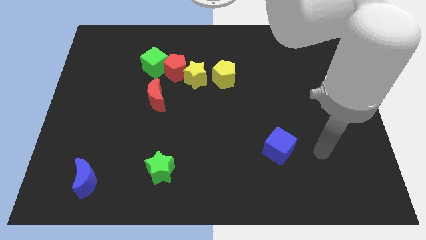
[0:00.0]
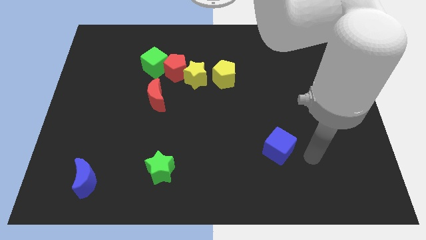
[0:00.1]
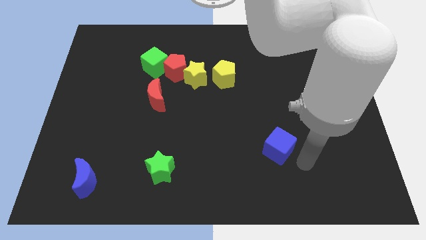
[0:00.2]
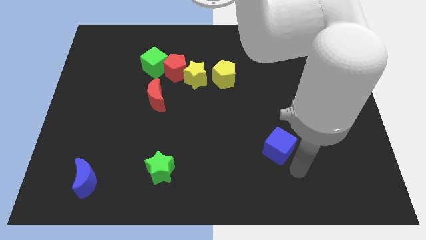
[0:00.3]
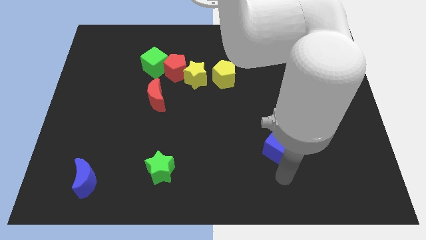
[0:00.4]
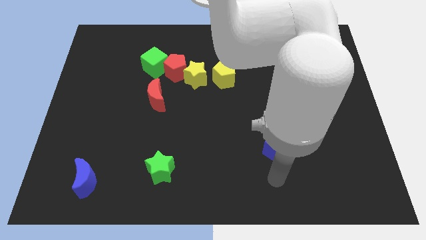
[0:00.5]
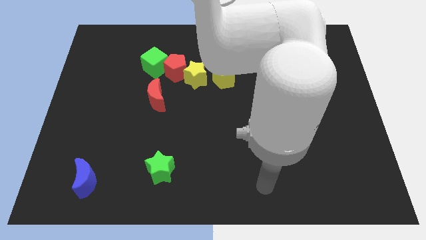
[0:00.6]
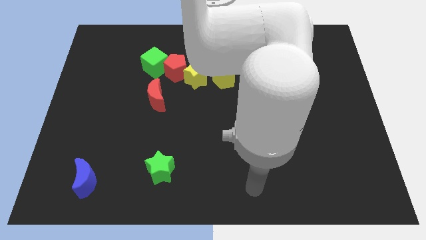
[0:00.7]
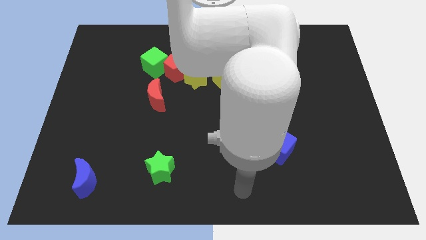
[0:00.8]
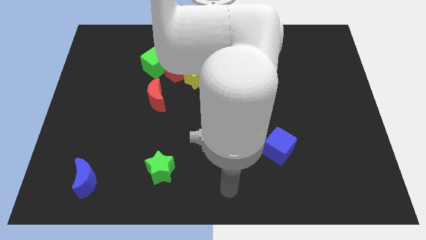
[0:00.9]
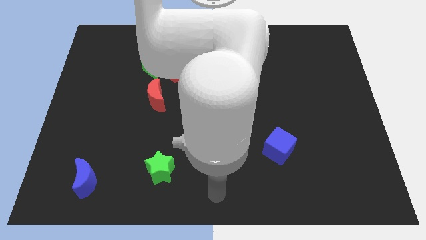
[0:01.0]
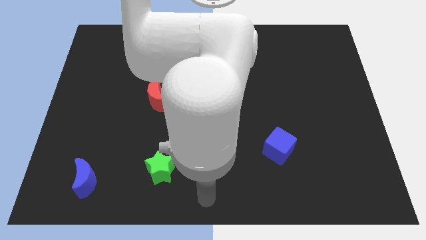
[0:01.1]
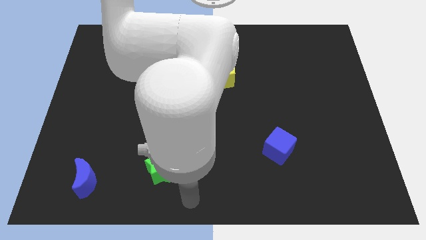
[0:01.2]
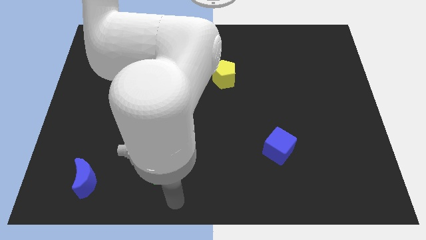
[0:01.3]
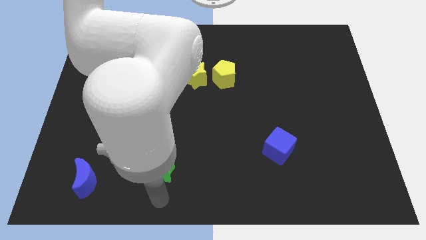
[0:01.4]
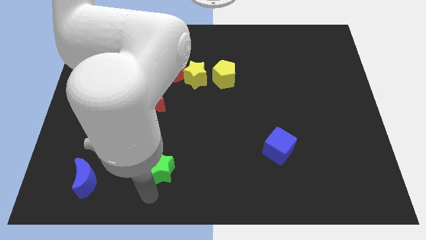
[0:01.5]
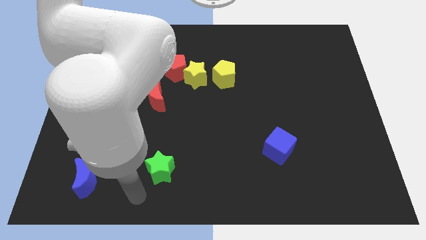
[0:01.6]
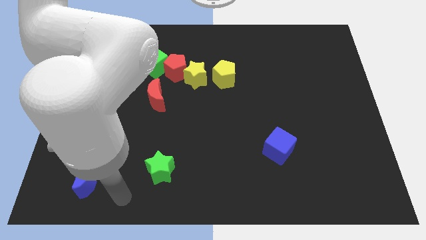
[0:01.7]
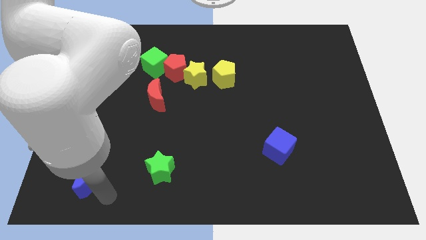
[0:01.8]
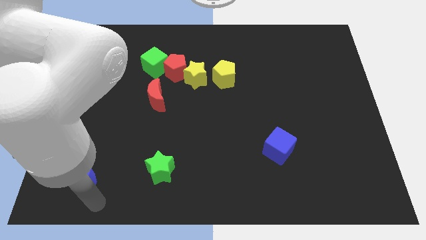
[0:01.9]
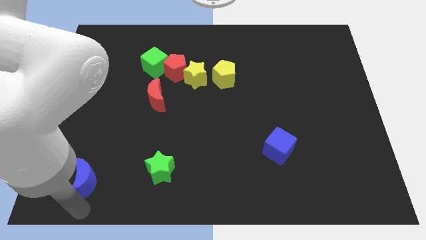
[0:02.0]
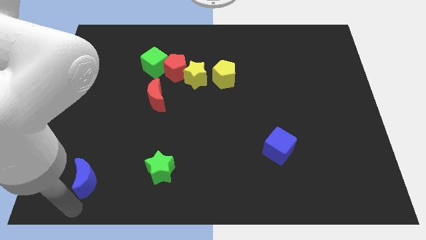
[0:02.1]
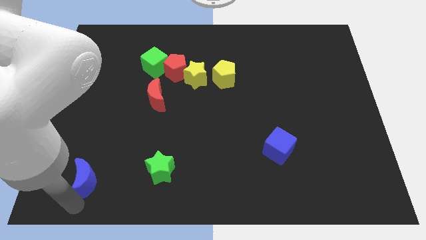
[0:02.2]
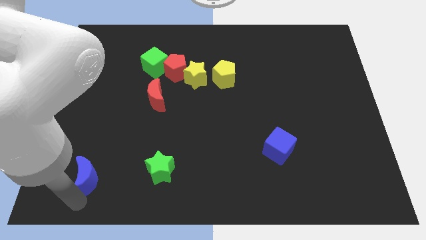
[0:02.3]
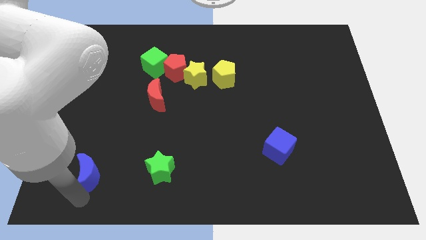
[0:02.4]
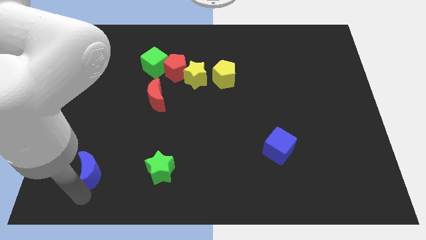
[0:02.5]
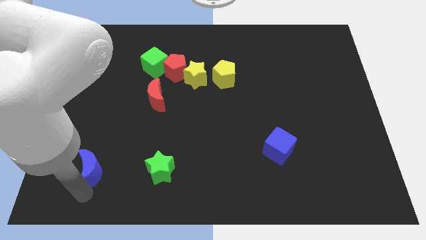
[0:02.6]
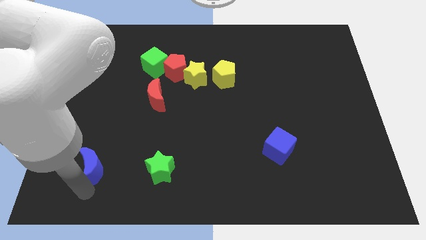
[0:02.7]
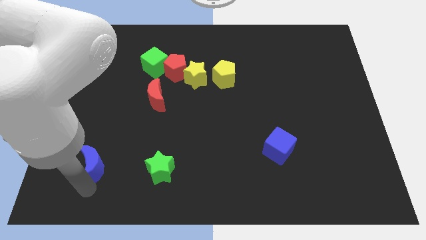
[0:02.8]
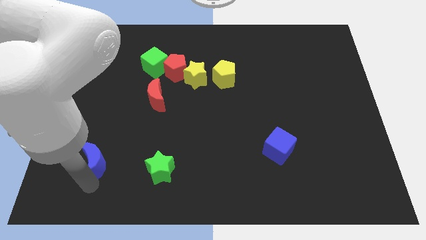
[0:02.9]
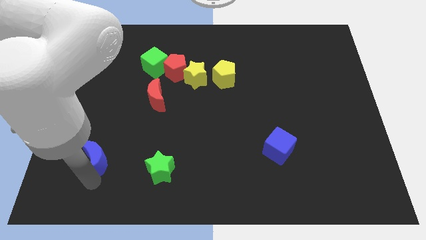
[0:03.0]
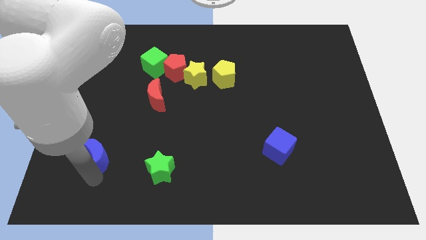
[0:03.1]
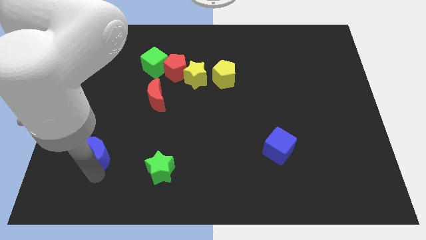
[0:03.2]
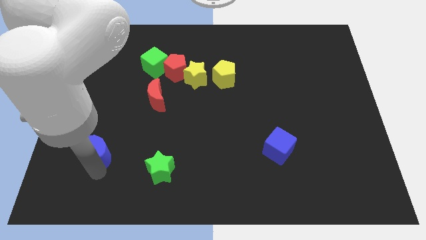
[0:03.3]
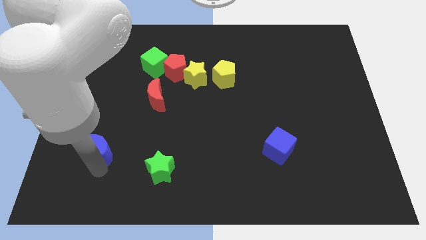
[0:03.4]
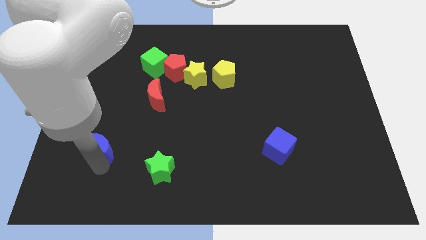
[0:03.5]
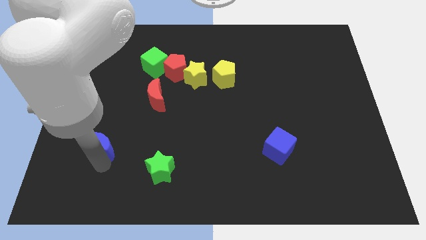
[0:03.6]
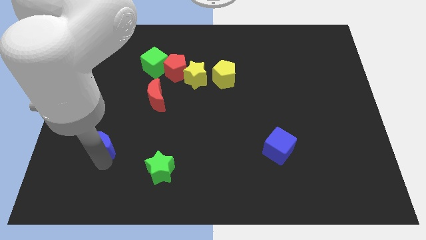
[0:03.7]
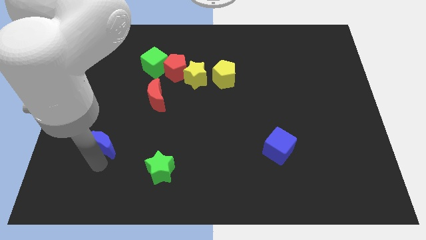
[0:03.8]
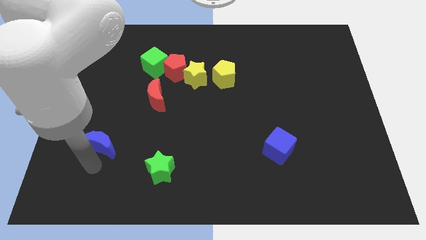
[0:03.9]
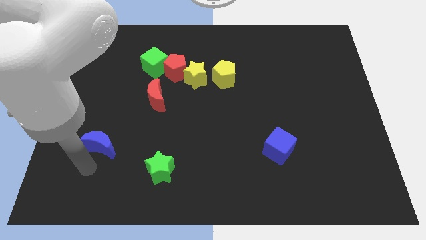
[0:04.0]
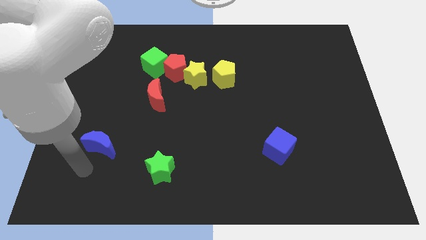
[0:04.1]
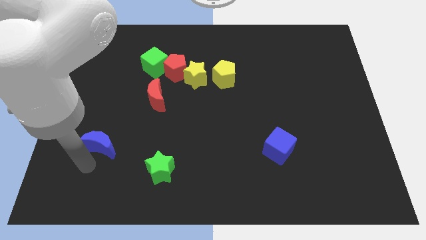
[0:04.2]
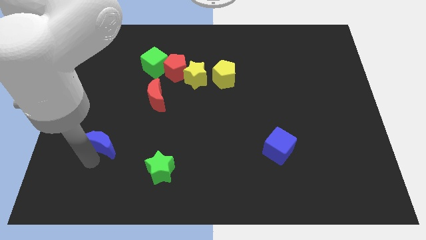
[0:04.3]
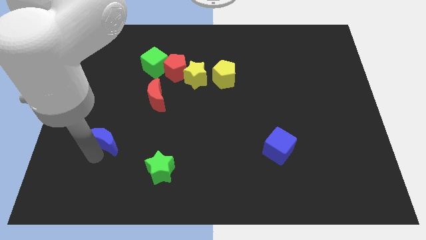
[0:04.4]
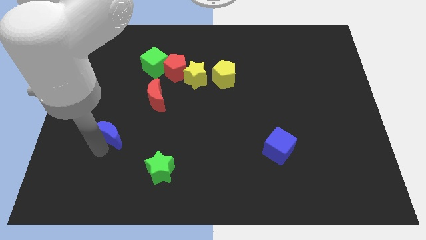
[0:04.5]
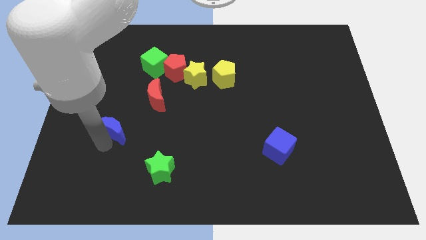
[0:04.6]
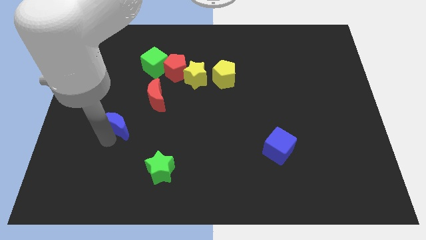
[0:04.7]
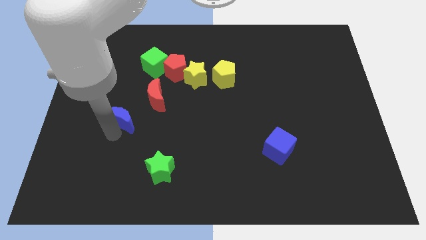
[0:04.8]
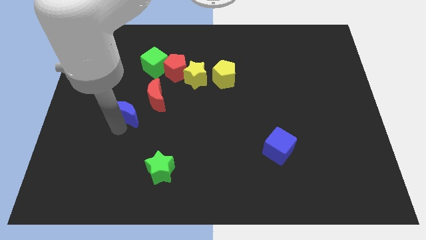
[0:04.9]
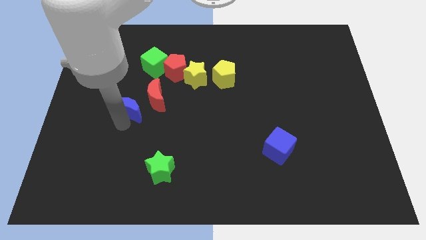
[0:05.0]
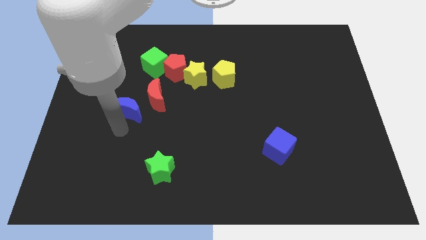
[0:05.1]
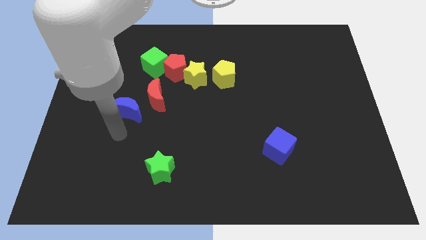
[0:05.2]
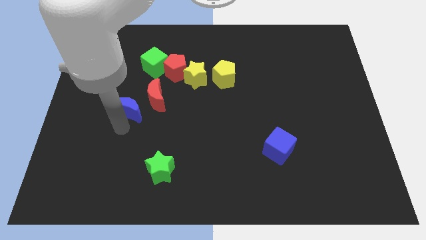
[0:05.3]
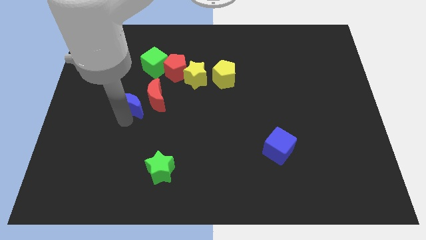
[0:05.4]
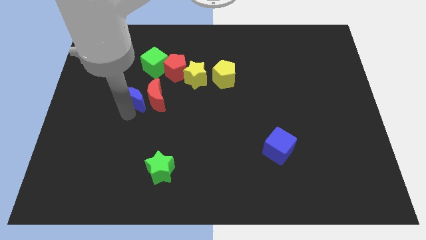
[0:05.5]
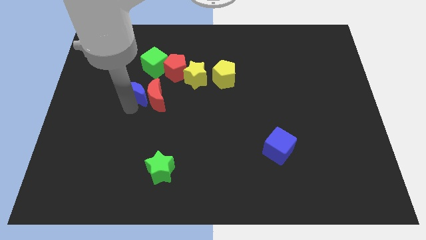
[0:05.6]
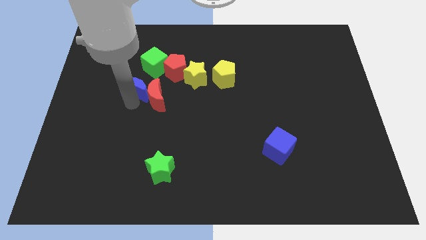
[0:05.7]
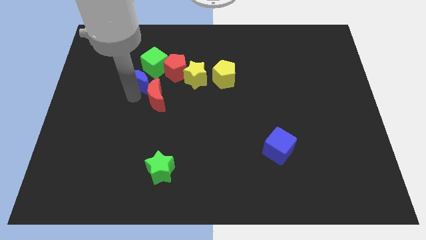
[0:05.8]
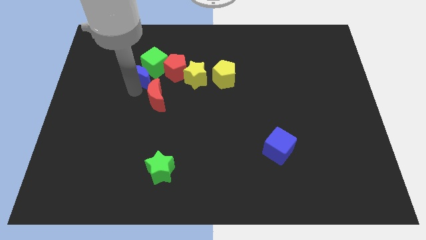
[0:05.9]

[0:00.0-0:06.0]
move the blue moon close to the green cube

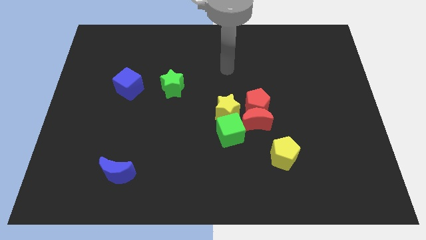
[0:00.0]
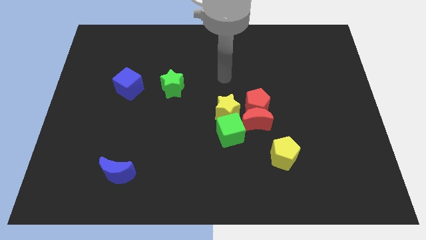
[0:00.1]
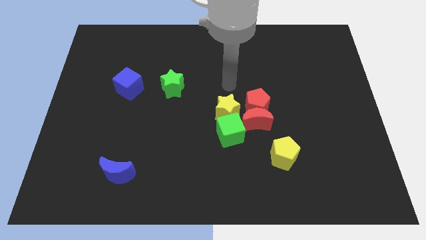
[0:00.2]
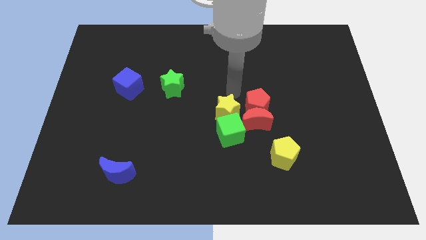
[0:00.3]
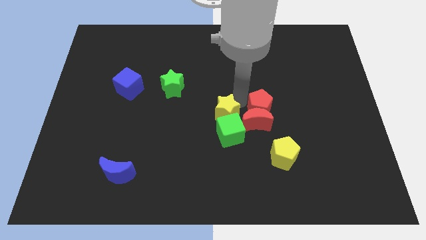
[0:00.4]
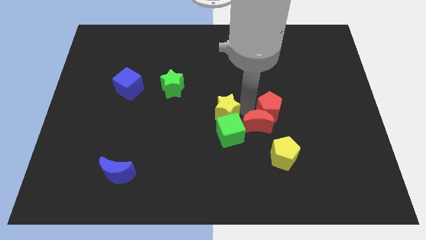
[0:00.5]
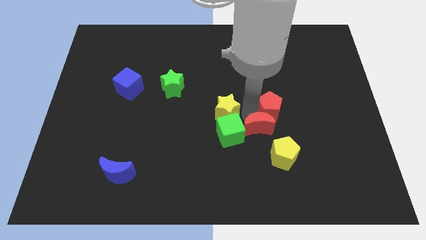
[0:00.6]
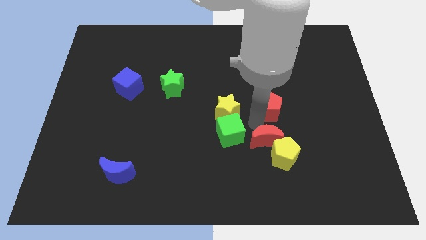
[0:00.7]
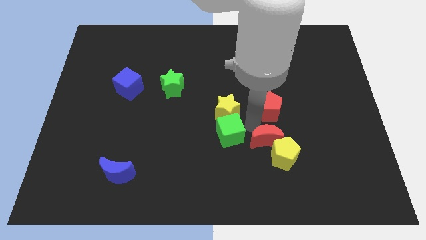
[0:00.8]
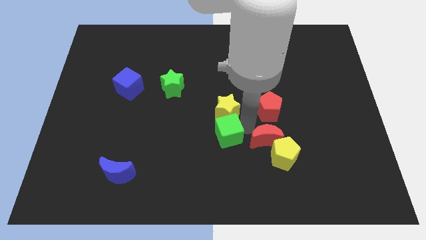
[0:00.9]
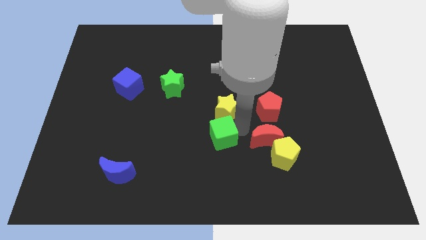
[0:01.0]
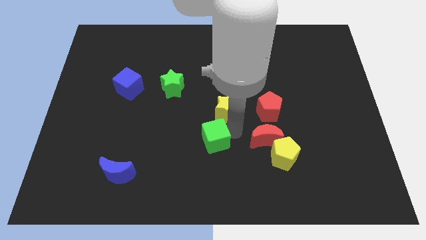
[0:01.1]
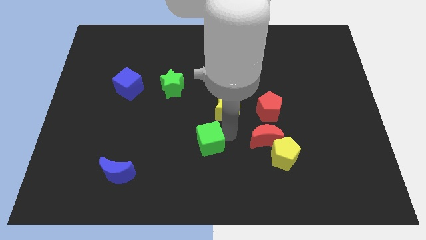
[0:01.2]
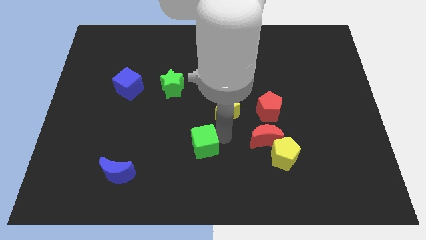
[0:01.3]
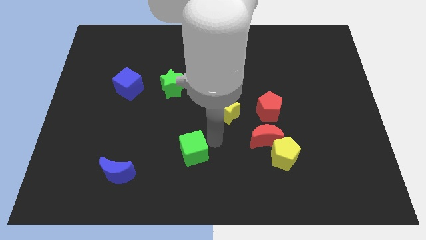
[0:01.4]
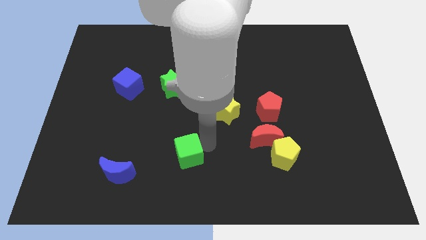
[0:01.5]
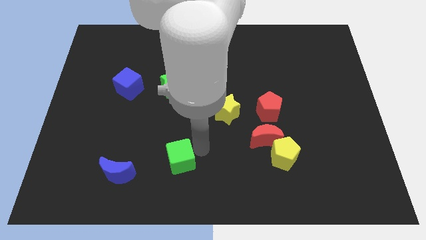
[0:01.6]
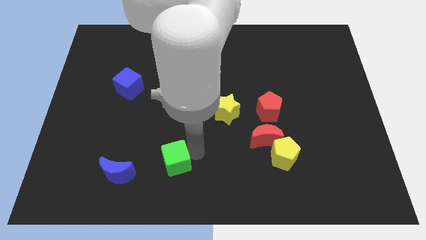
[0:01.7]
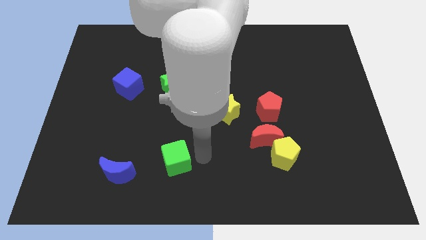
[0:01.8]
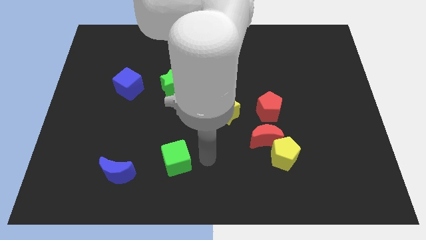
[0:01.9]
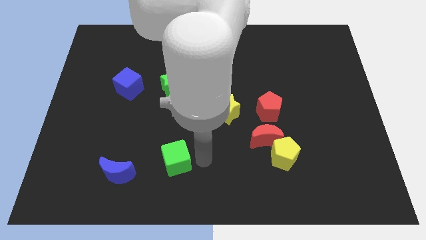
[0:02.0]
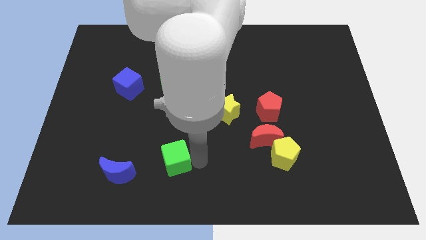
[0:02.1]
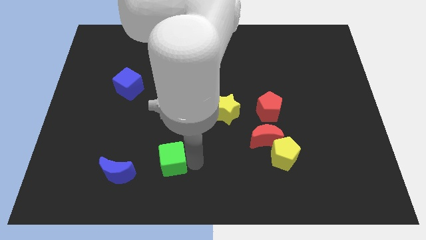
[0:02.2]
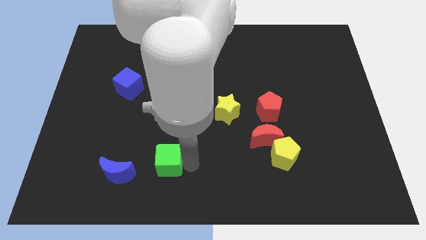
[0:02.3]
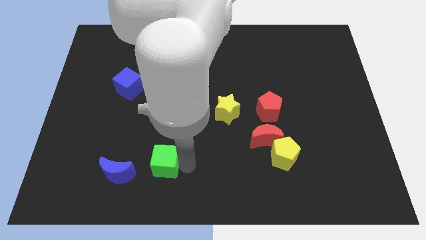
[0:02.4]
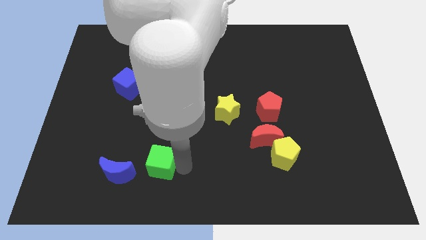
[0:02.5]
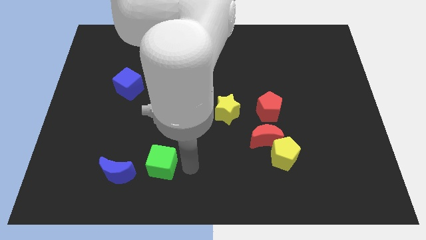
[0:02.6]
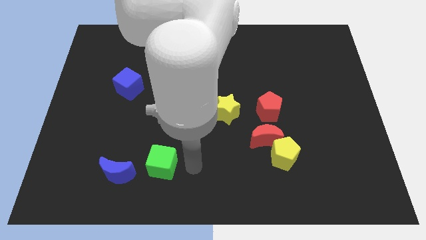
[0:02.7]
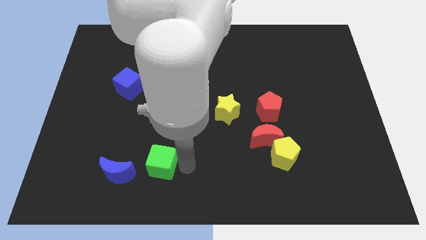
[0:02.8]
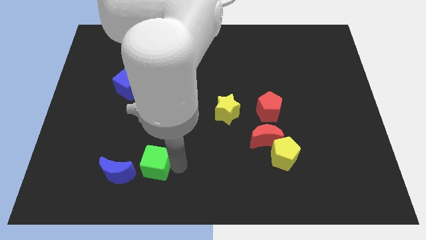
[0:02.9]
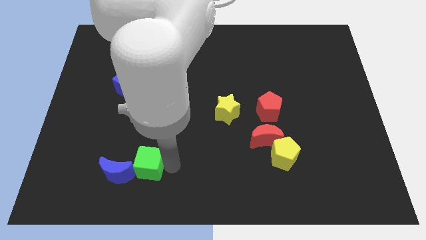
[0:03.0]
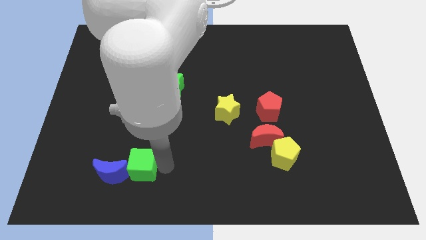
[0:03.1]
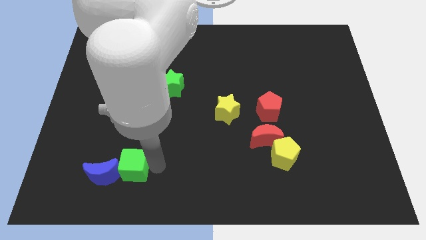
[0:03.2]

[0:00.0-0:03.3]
put the green cube towards the blue moon
